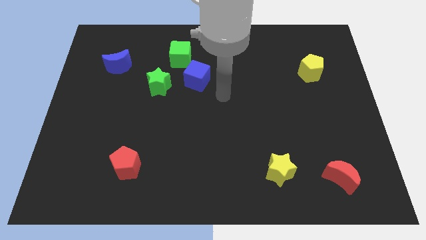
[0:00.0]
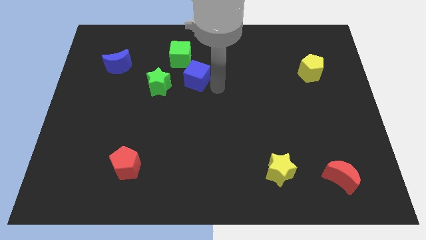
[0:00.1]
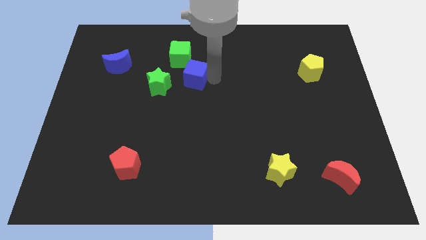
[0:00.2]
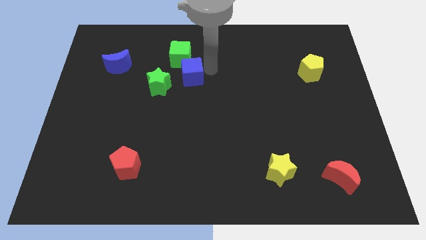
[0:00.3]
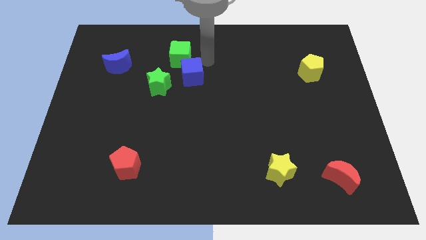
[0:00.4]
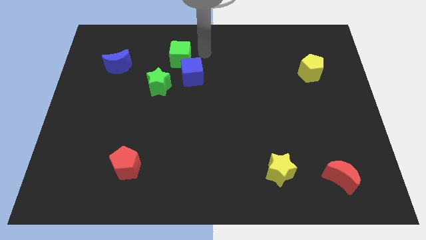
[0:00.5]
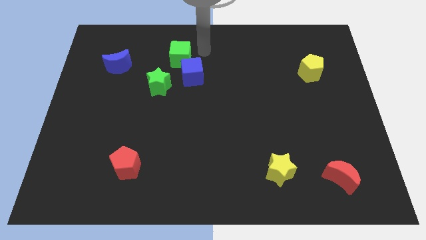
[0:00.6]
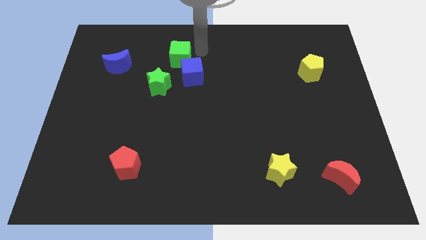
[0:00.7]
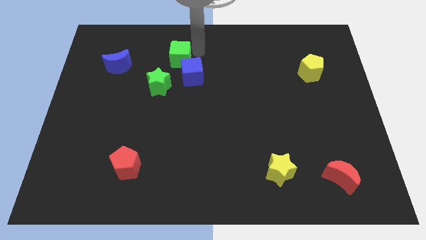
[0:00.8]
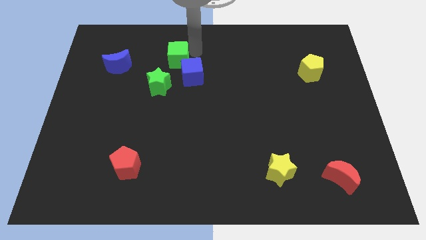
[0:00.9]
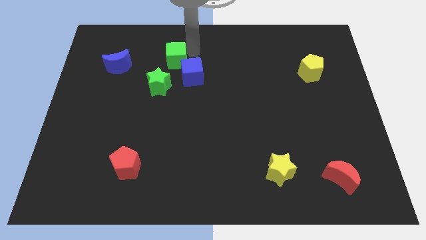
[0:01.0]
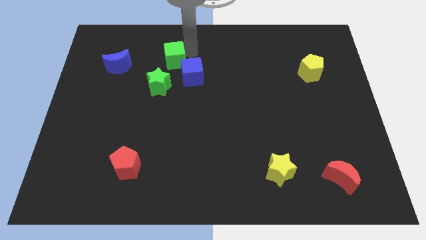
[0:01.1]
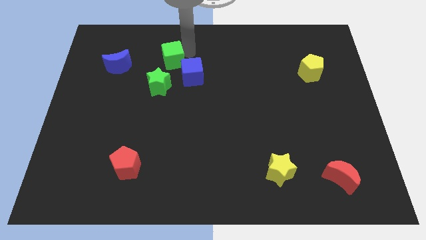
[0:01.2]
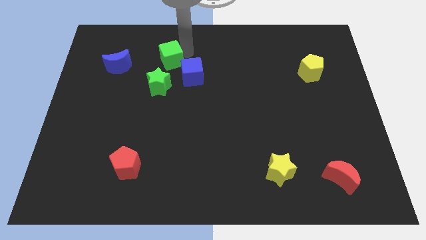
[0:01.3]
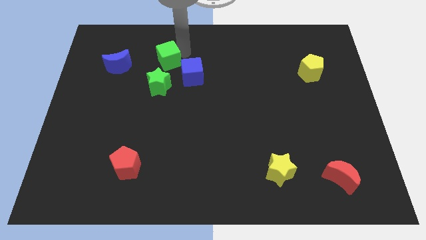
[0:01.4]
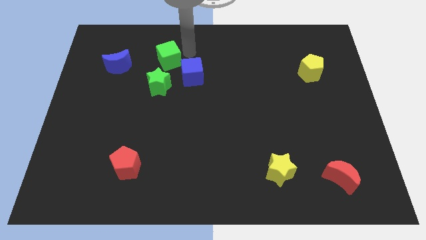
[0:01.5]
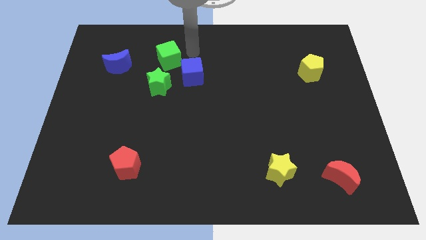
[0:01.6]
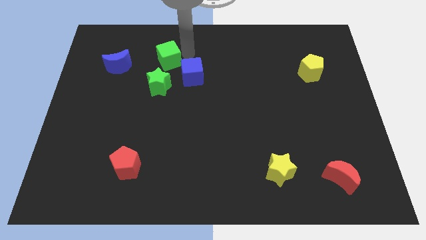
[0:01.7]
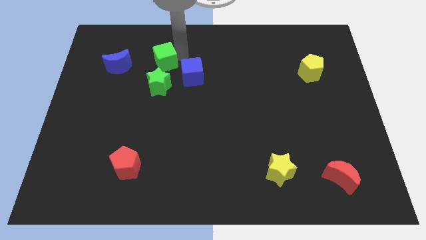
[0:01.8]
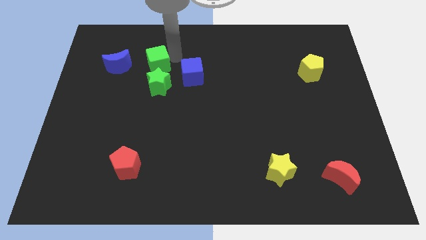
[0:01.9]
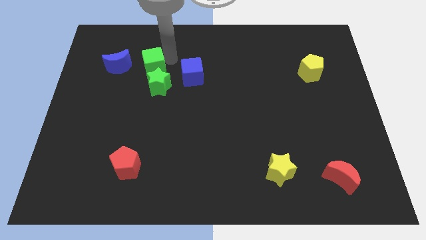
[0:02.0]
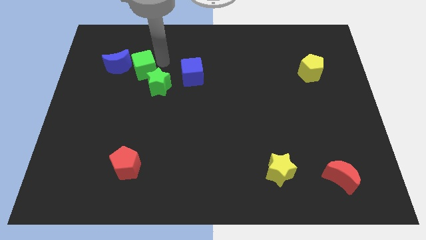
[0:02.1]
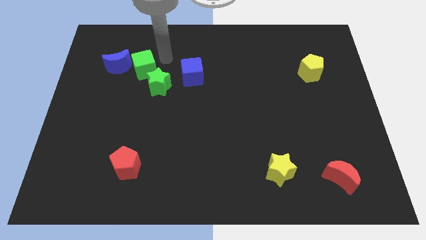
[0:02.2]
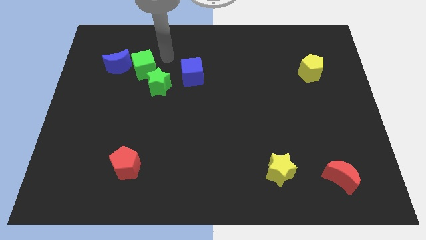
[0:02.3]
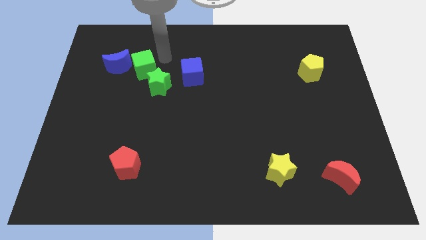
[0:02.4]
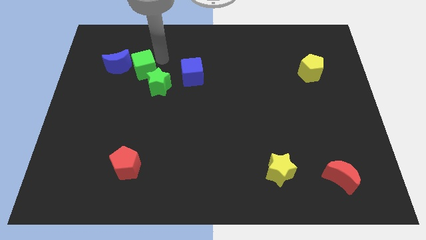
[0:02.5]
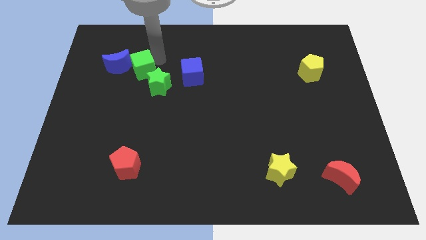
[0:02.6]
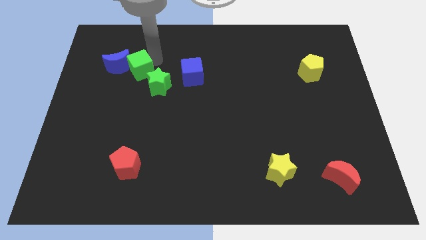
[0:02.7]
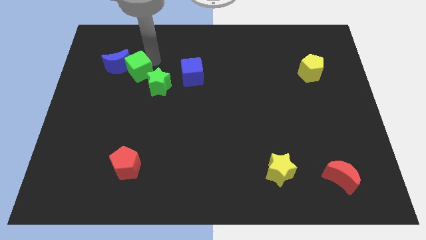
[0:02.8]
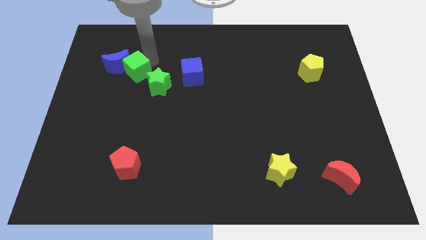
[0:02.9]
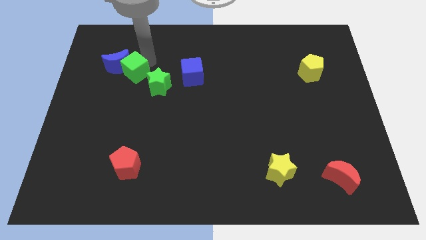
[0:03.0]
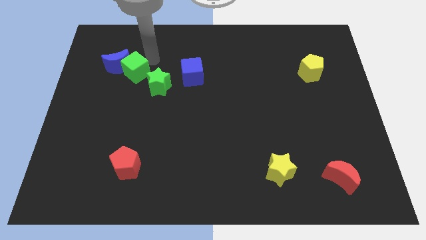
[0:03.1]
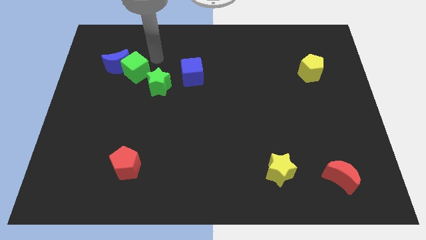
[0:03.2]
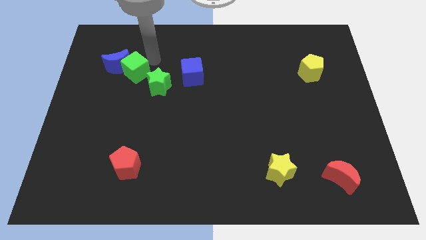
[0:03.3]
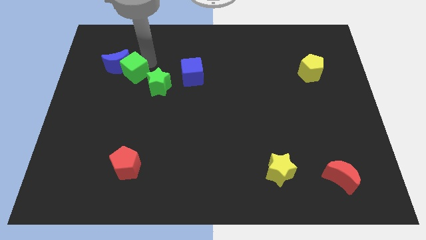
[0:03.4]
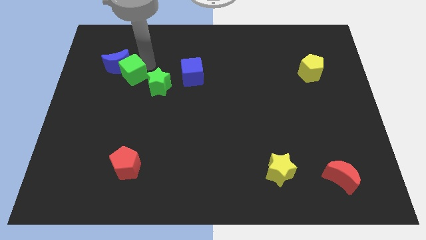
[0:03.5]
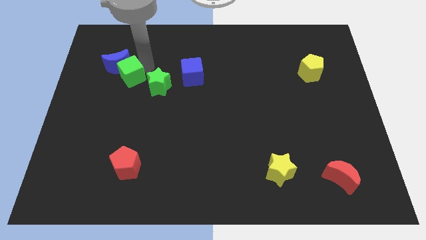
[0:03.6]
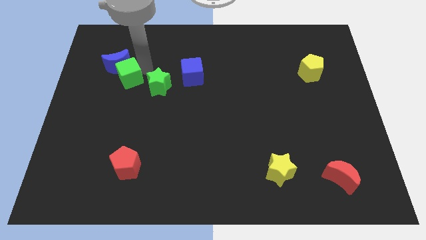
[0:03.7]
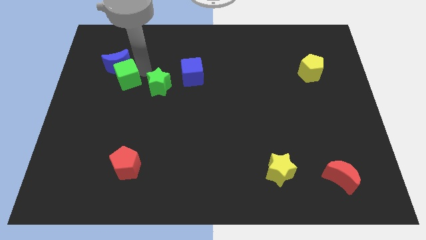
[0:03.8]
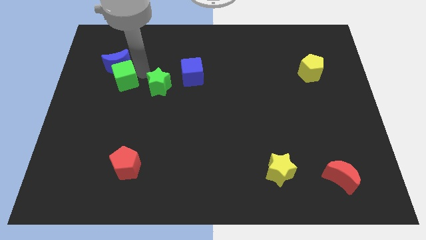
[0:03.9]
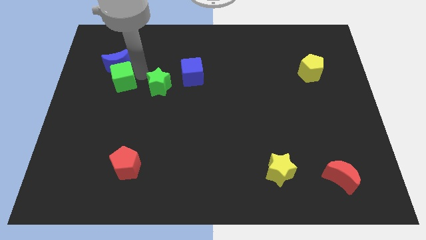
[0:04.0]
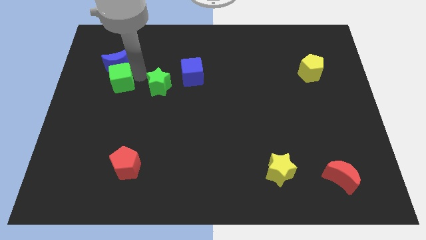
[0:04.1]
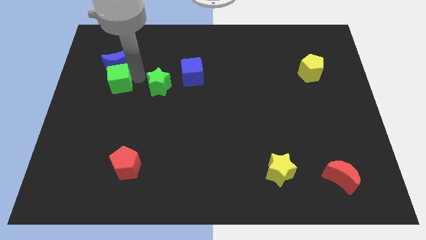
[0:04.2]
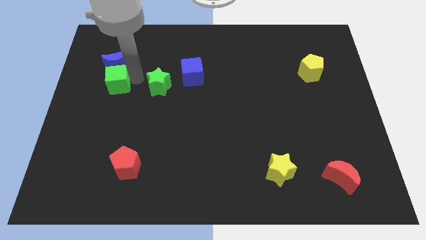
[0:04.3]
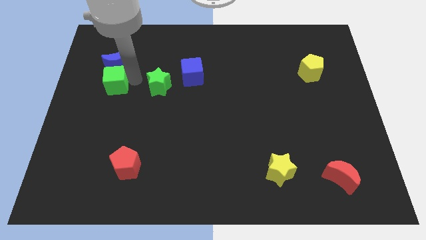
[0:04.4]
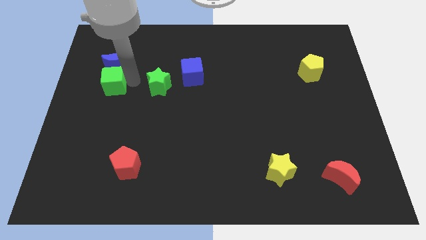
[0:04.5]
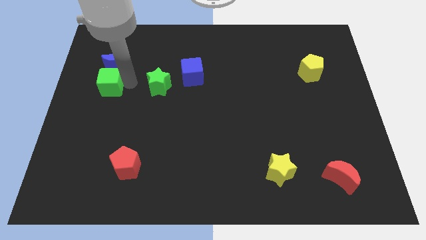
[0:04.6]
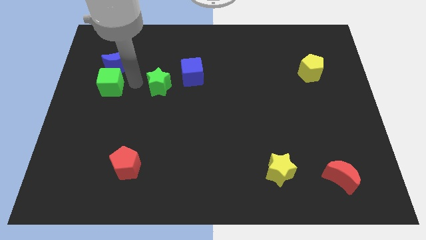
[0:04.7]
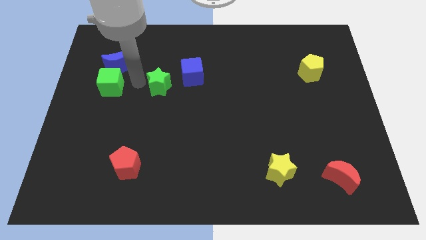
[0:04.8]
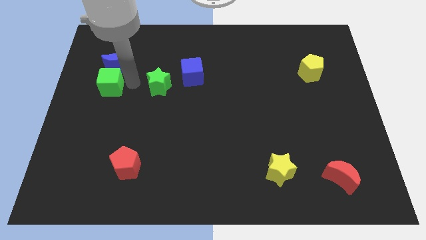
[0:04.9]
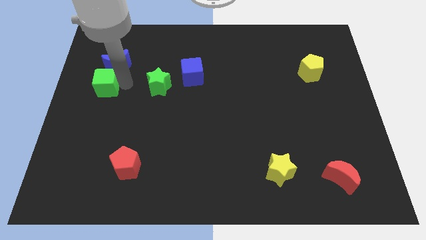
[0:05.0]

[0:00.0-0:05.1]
push the green cube to the left side of the board

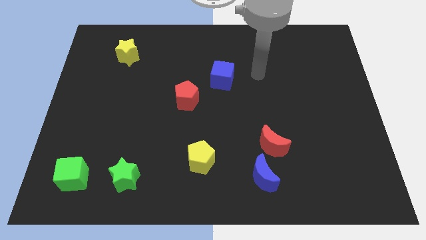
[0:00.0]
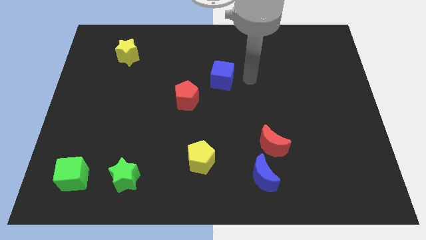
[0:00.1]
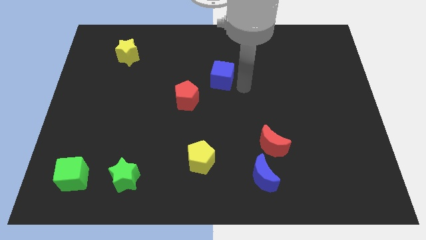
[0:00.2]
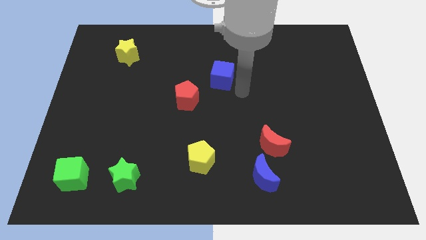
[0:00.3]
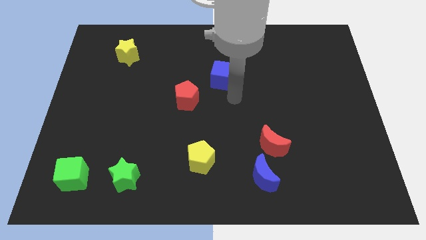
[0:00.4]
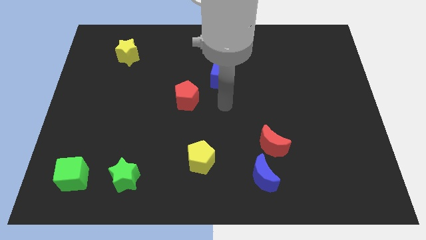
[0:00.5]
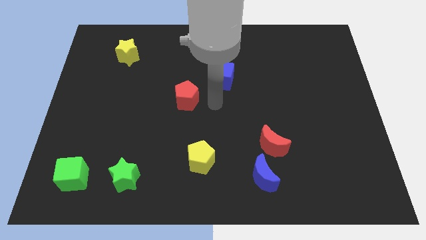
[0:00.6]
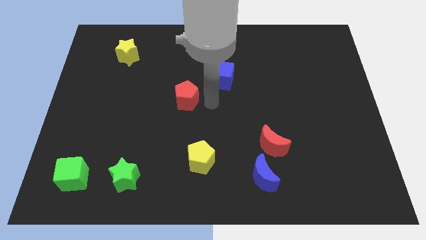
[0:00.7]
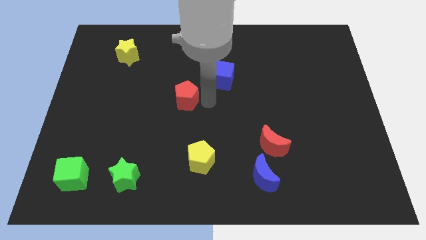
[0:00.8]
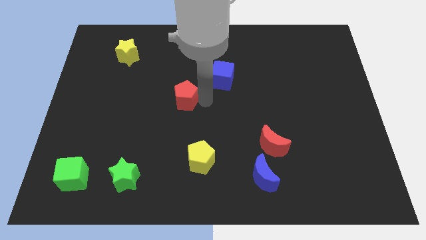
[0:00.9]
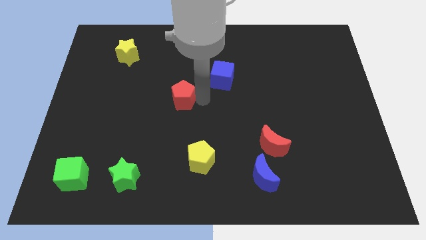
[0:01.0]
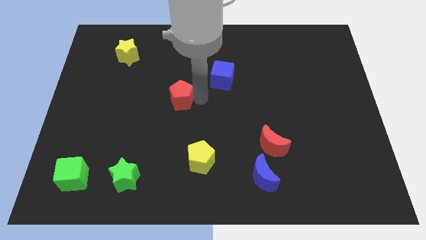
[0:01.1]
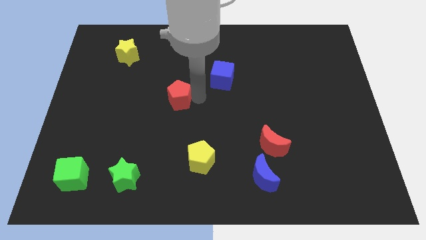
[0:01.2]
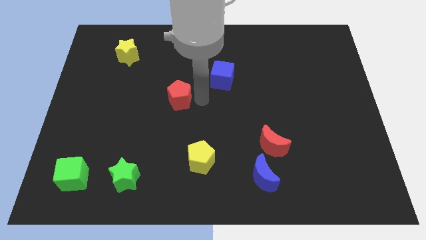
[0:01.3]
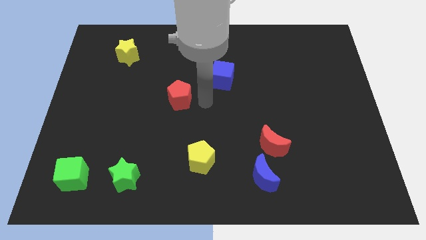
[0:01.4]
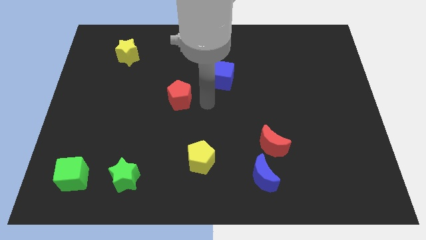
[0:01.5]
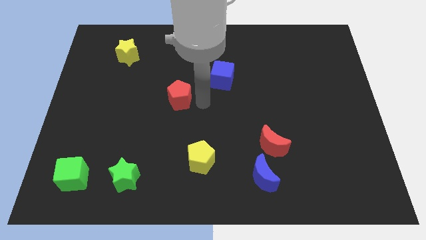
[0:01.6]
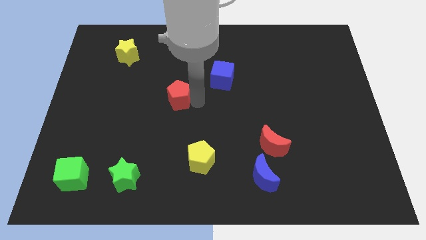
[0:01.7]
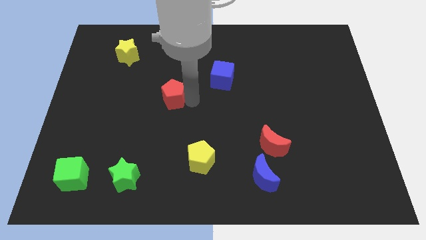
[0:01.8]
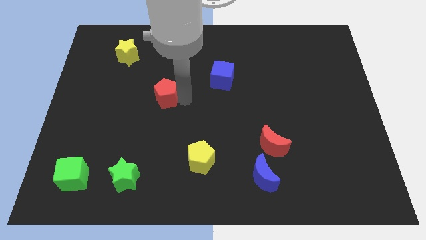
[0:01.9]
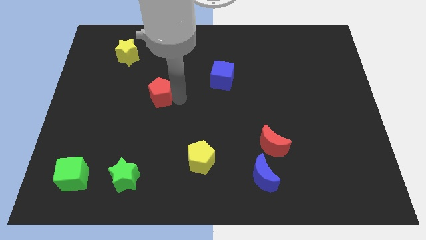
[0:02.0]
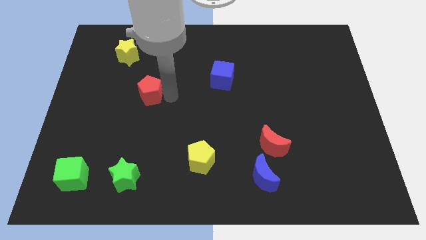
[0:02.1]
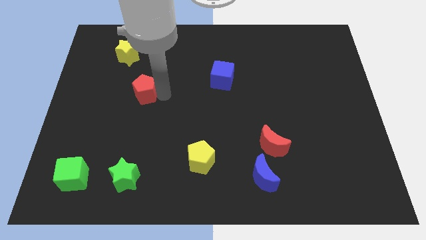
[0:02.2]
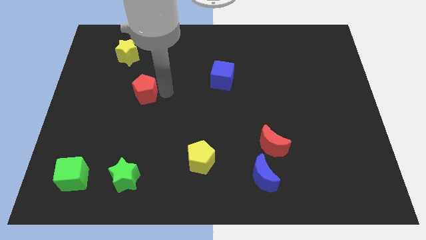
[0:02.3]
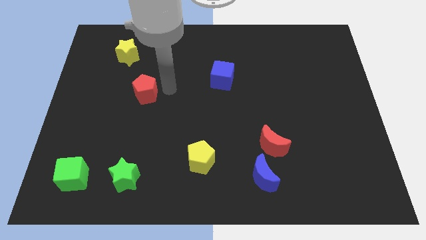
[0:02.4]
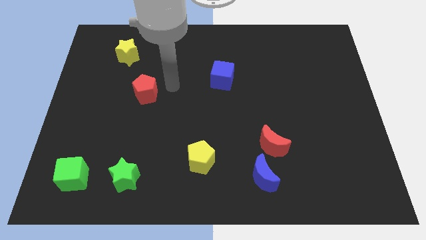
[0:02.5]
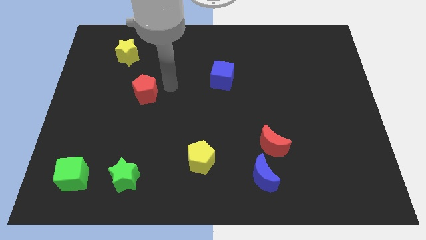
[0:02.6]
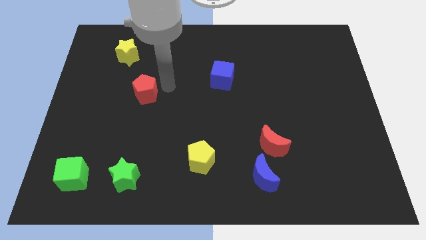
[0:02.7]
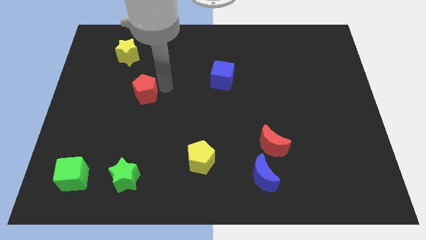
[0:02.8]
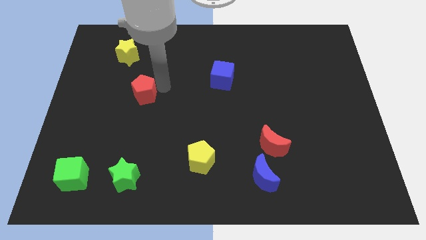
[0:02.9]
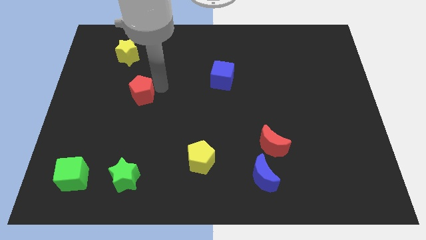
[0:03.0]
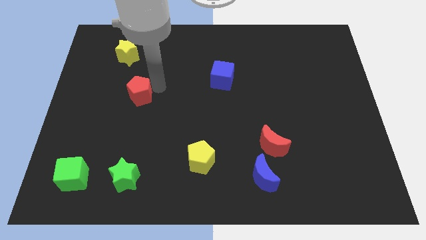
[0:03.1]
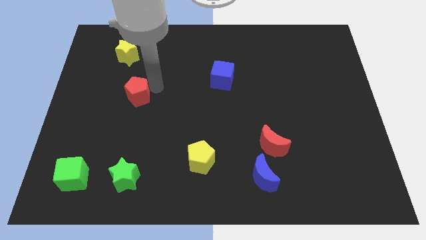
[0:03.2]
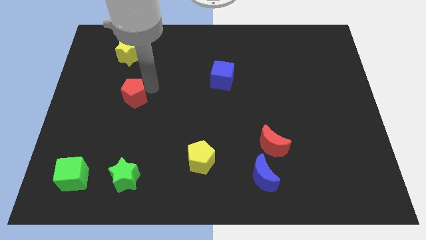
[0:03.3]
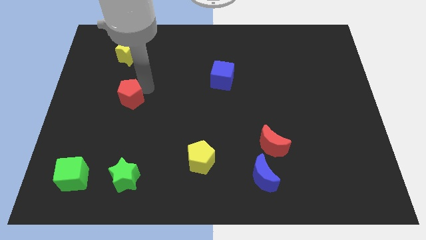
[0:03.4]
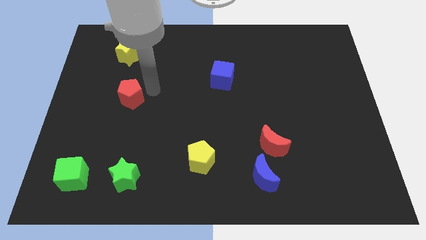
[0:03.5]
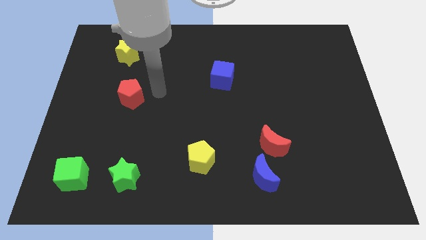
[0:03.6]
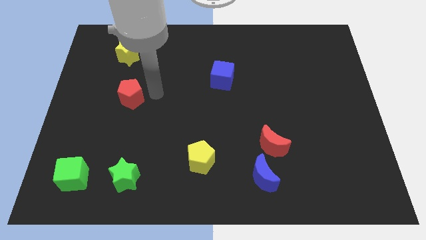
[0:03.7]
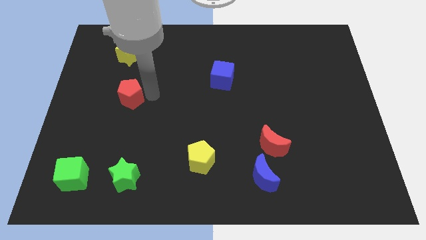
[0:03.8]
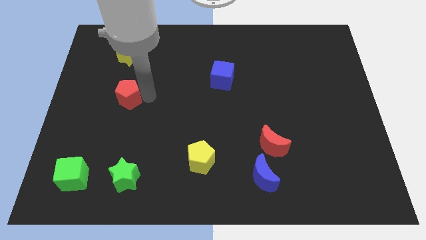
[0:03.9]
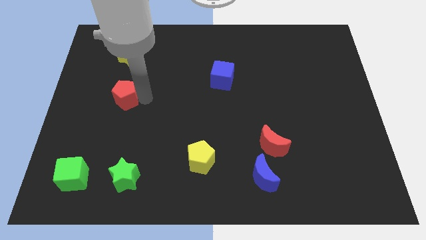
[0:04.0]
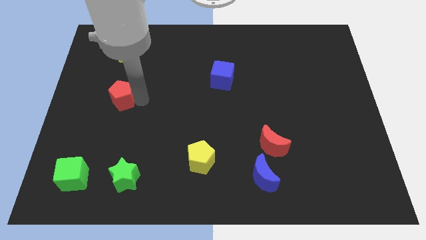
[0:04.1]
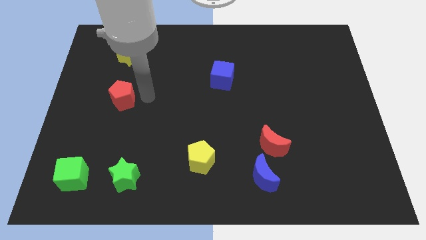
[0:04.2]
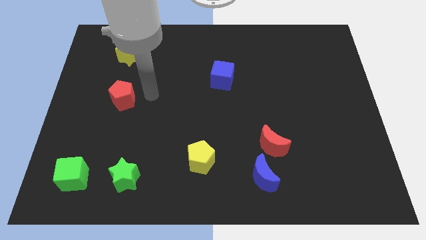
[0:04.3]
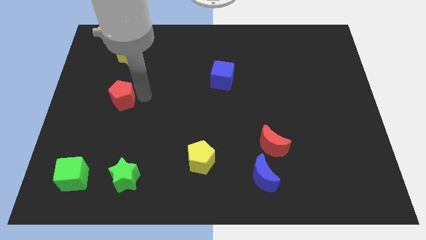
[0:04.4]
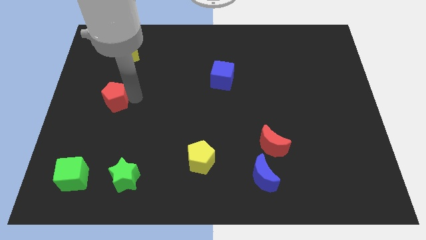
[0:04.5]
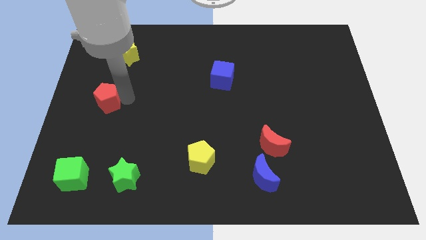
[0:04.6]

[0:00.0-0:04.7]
put the red pentagon to the left side
